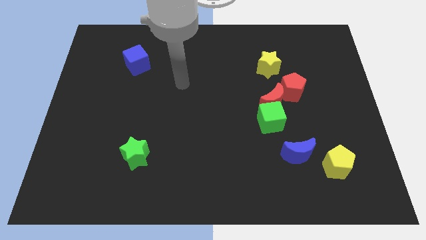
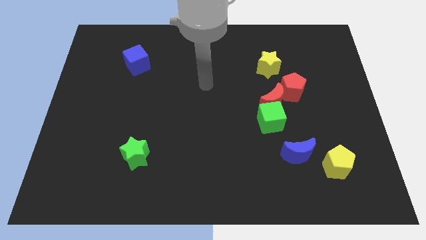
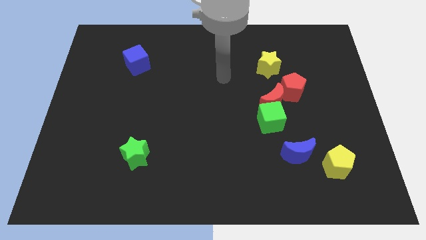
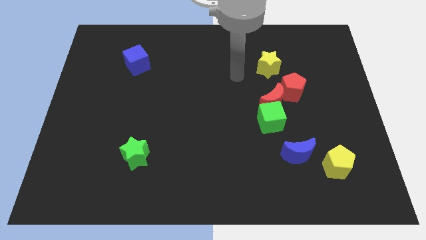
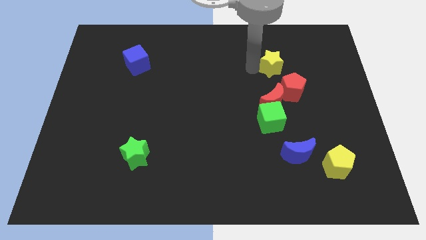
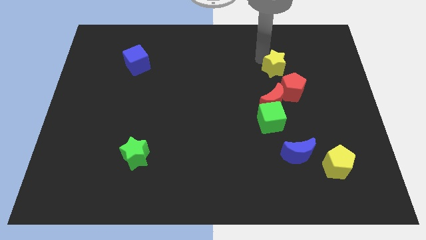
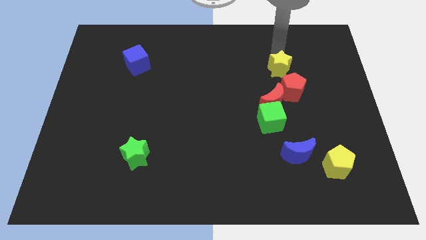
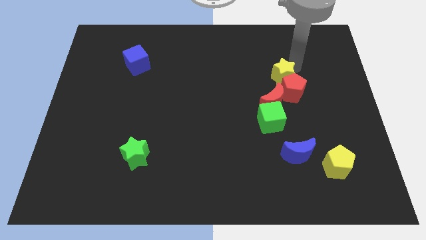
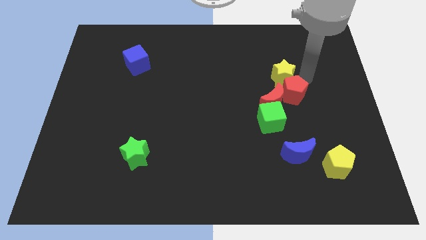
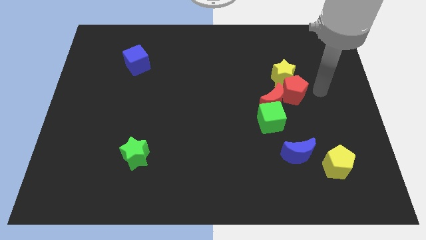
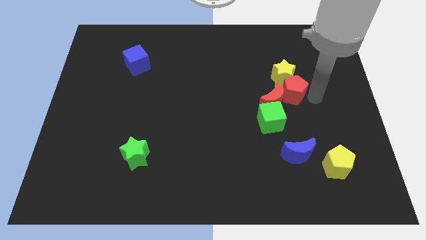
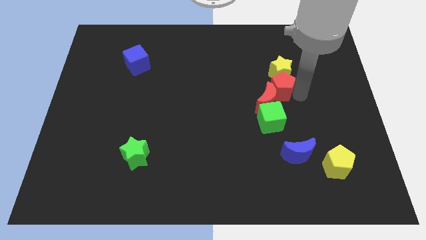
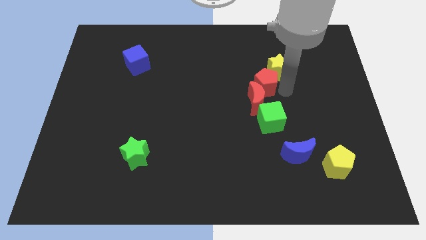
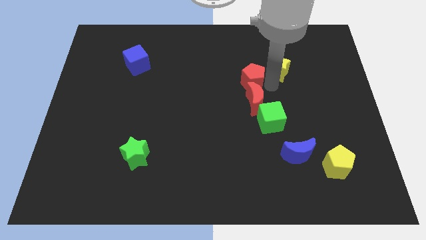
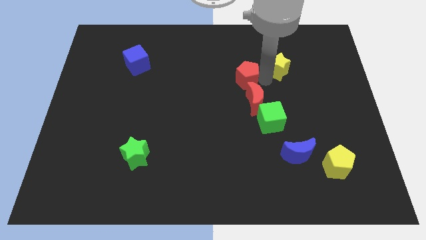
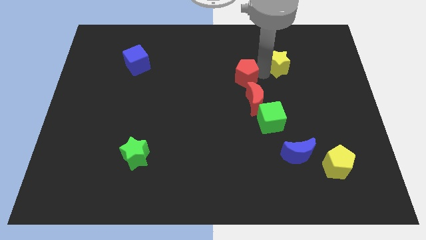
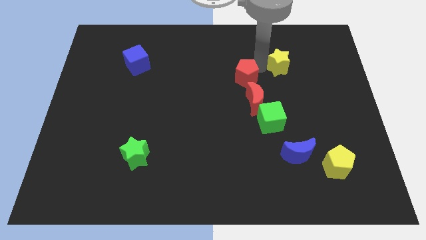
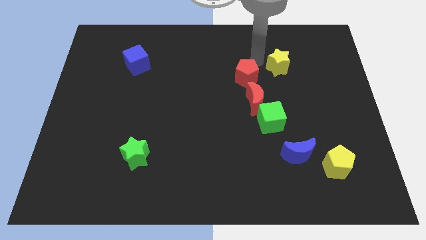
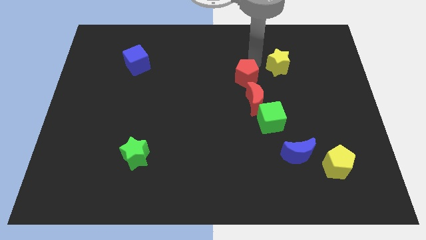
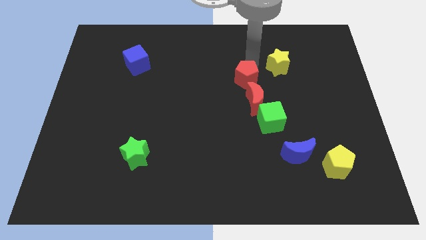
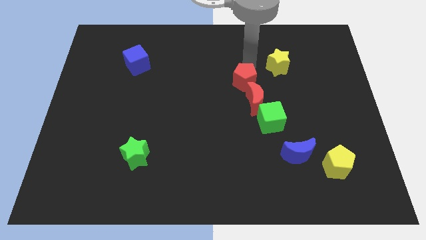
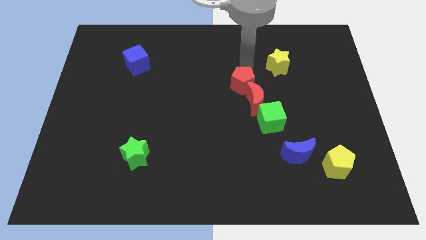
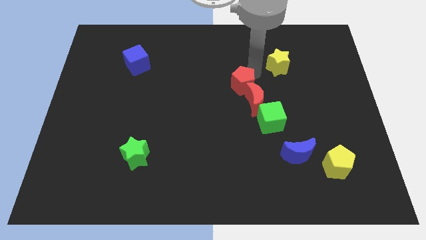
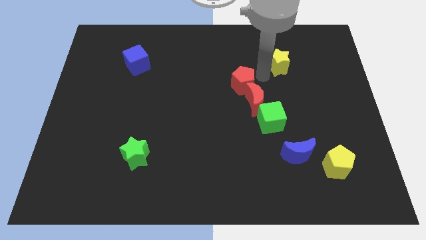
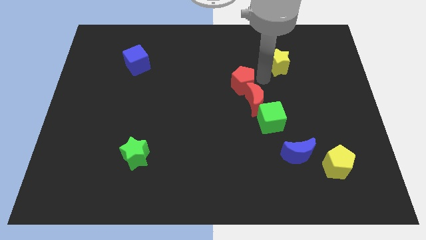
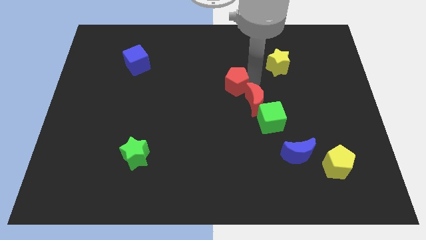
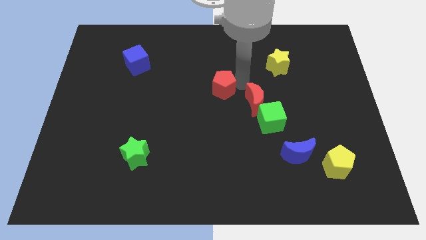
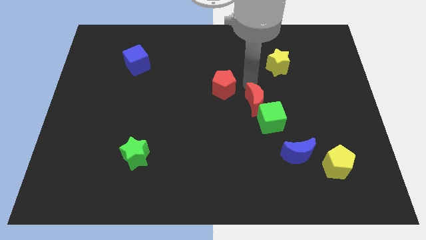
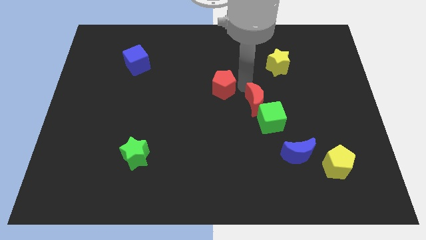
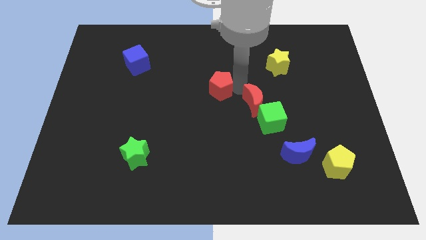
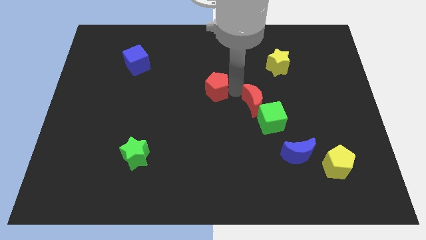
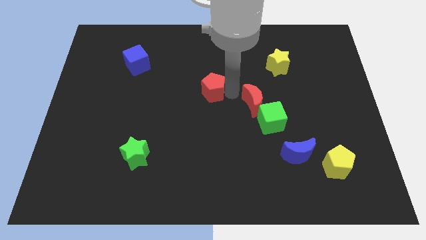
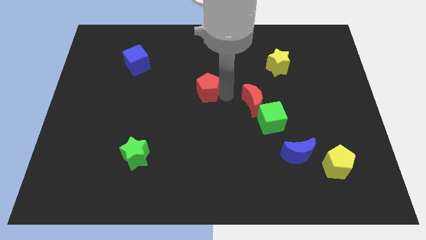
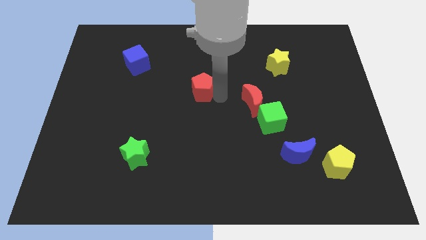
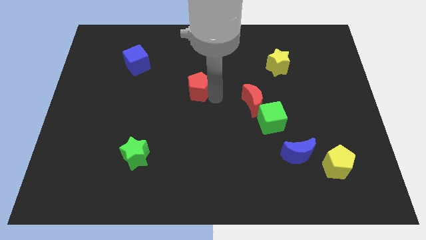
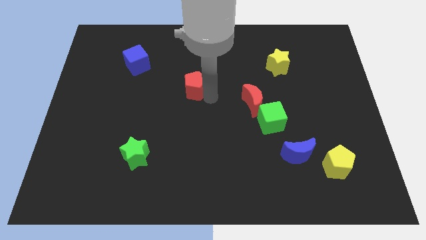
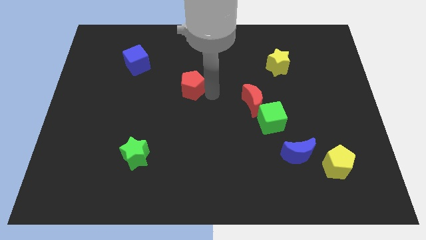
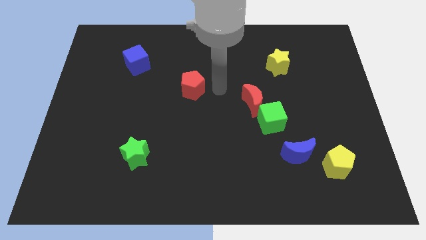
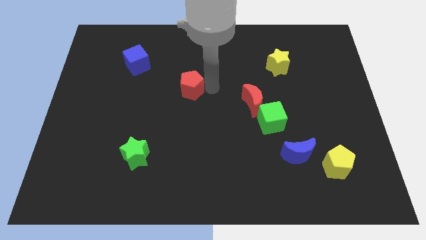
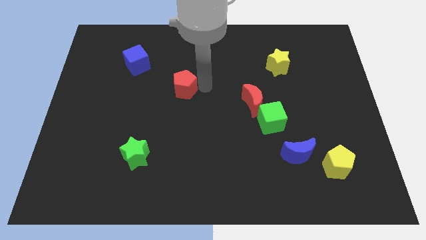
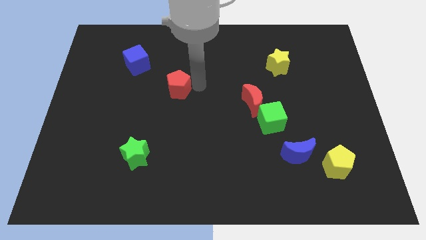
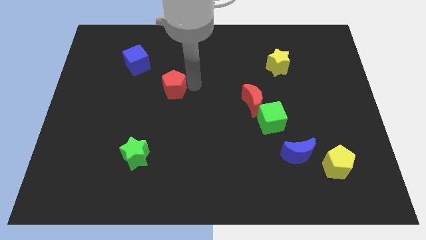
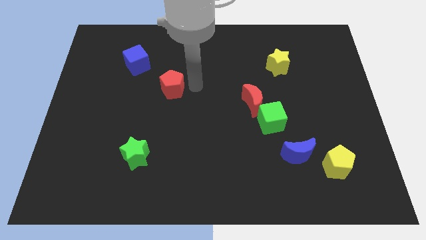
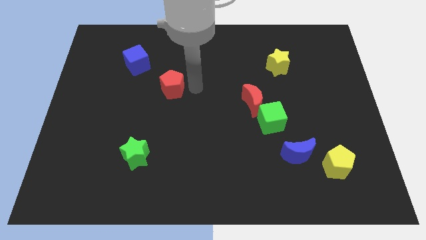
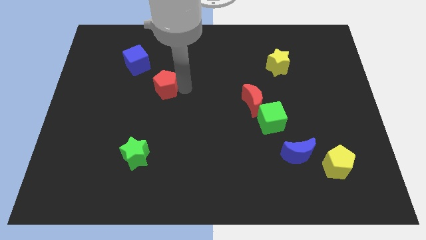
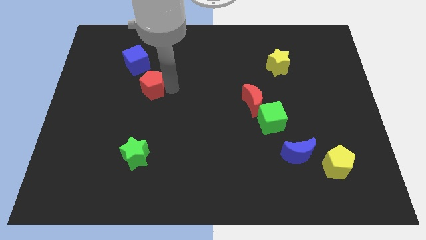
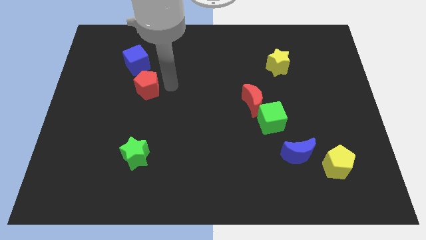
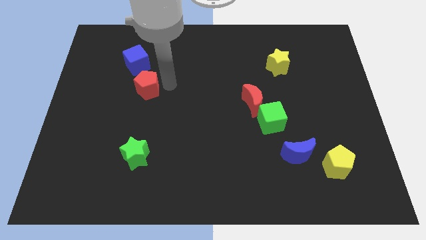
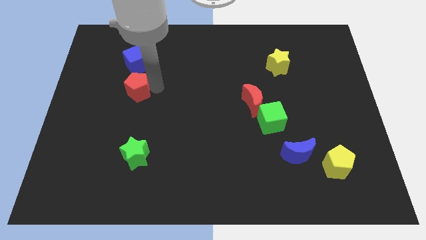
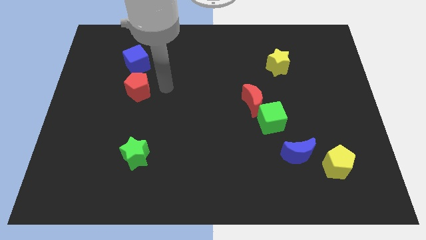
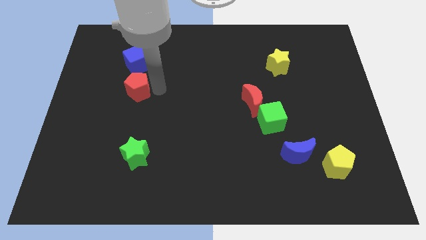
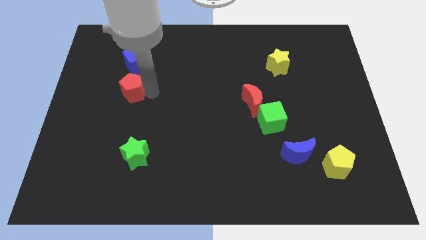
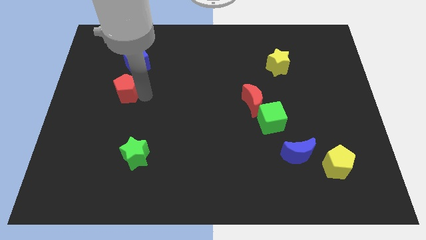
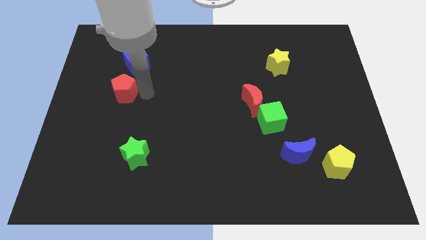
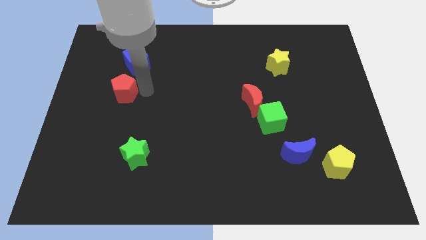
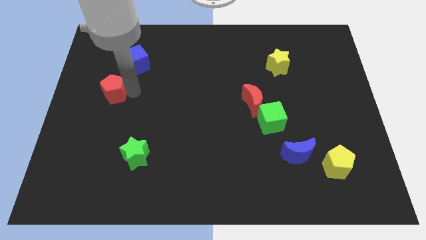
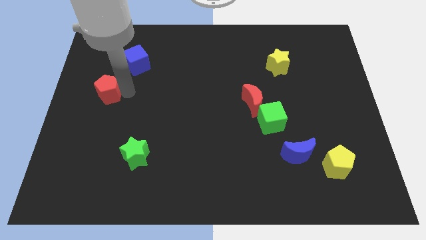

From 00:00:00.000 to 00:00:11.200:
move the red pentagon to the center left

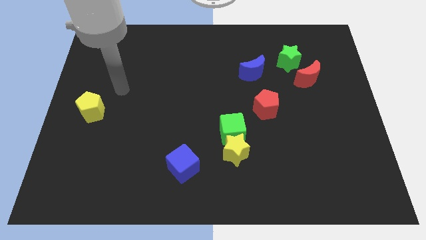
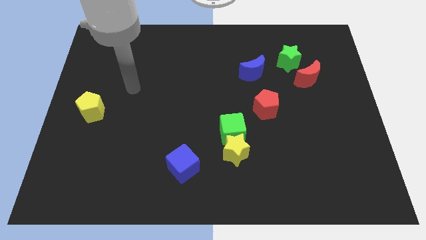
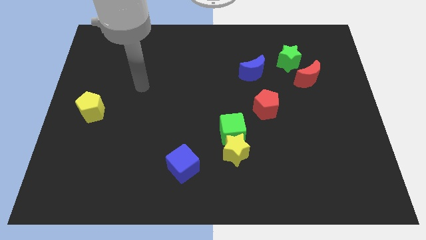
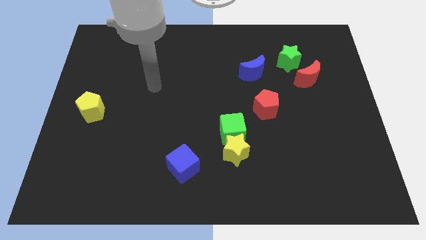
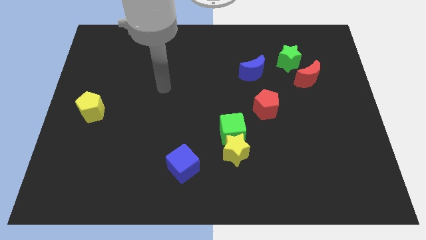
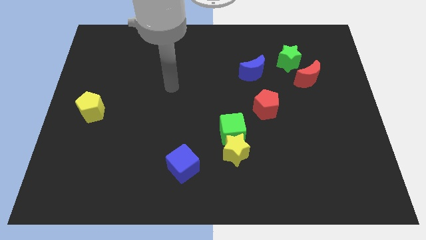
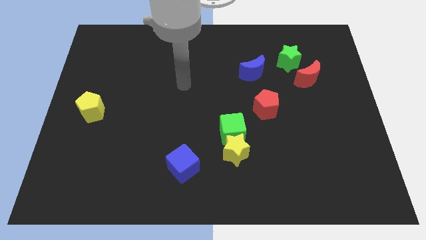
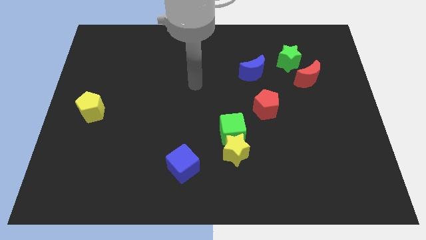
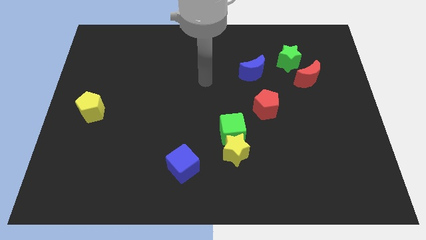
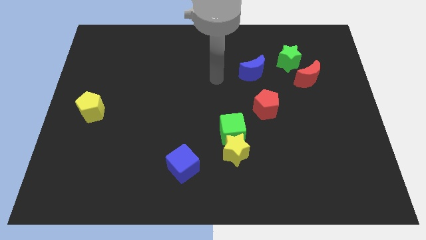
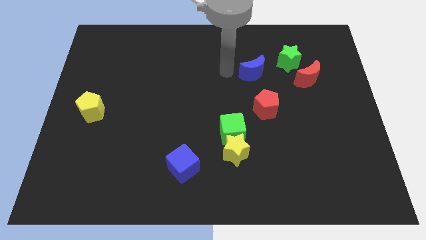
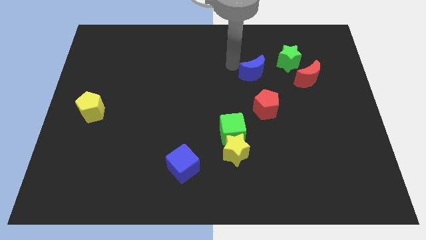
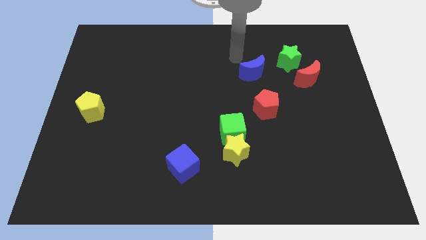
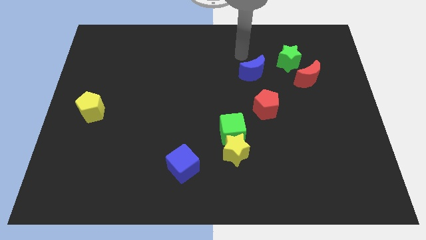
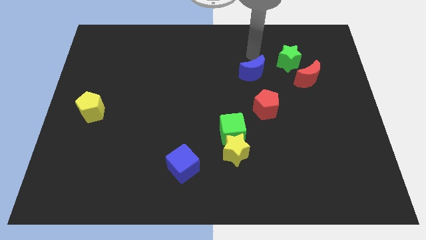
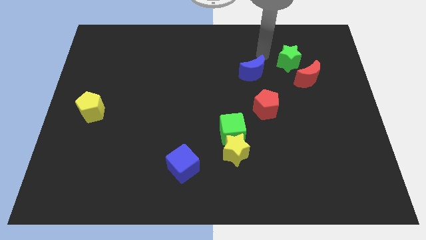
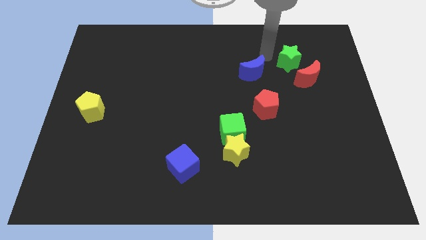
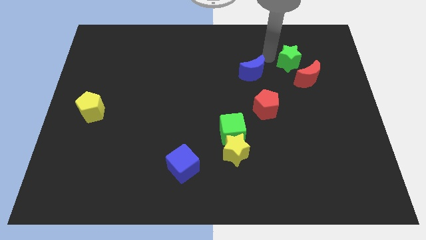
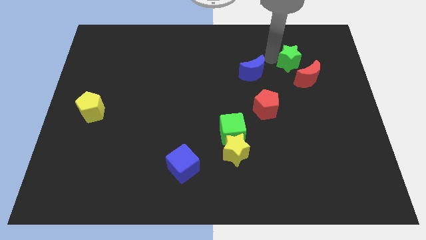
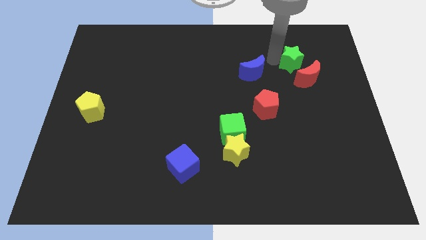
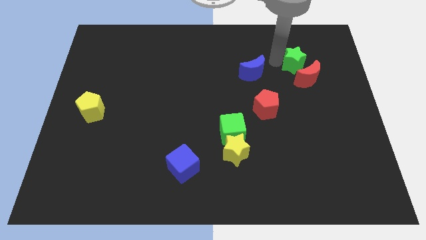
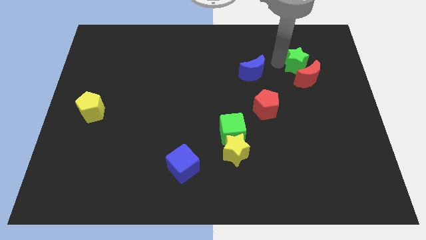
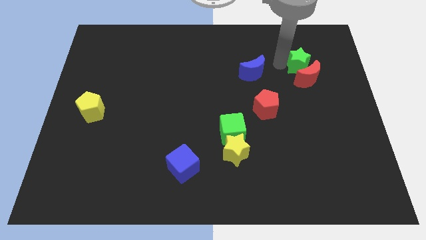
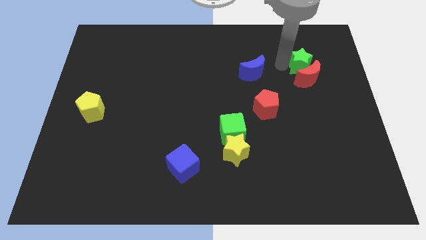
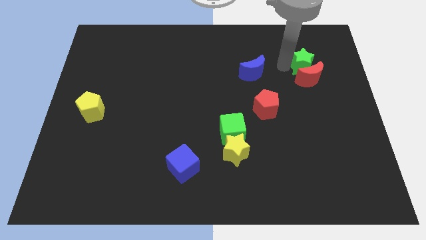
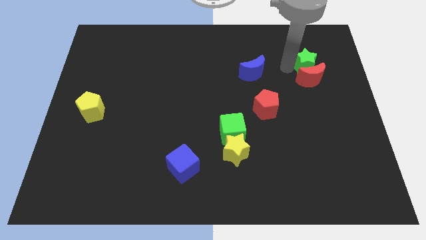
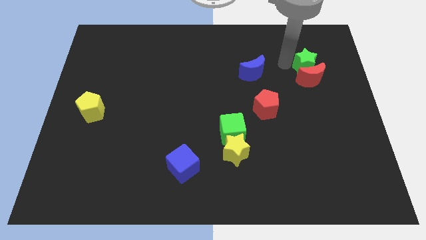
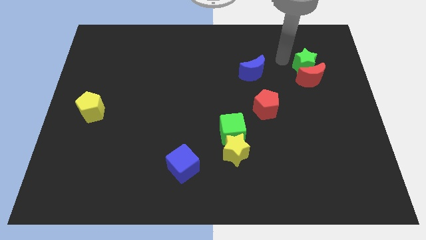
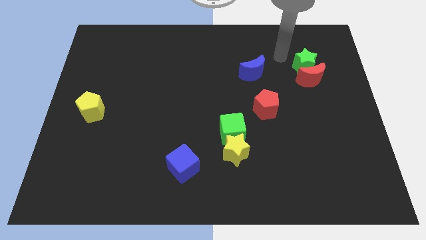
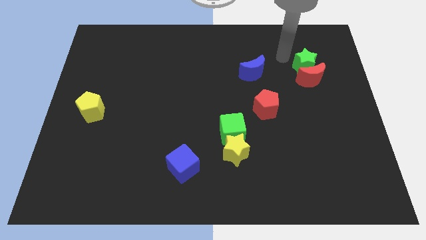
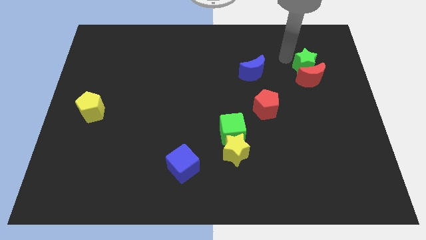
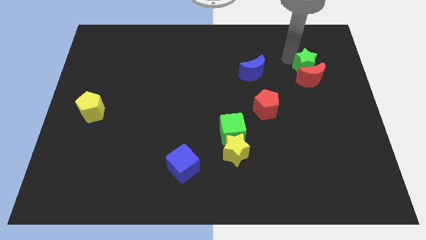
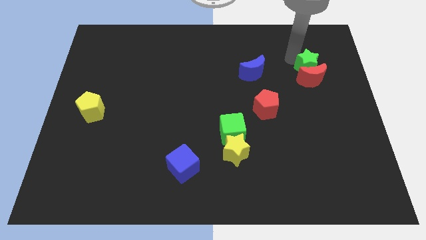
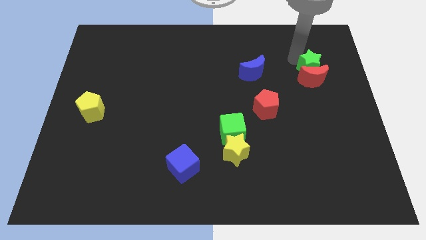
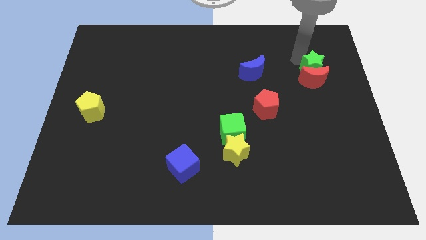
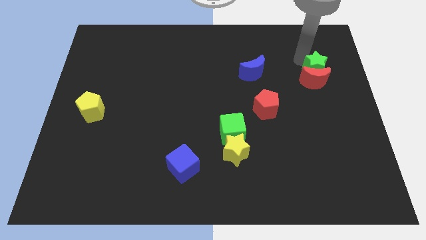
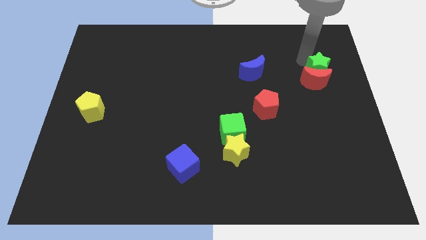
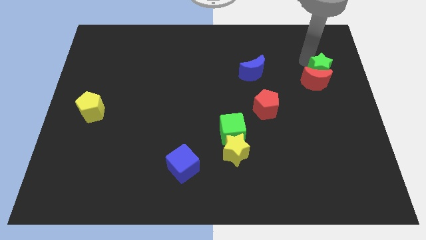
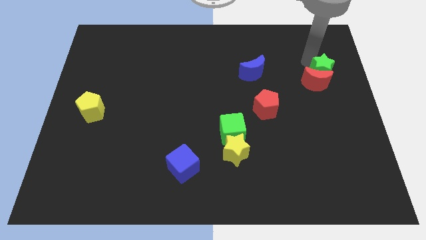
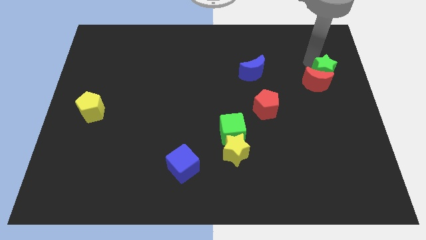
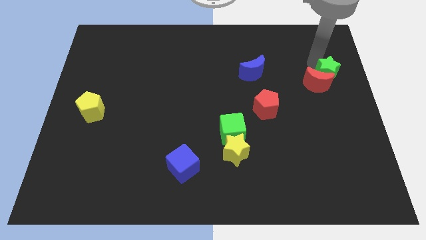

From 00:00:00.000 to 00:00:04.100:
move the green star to the right side
